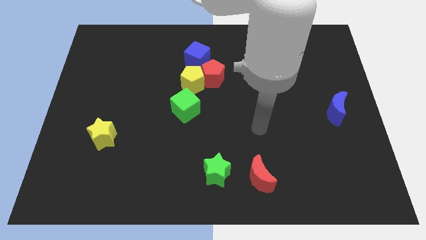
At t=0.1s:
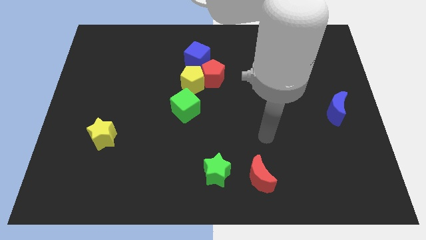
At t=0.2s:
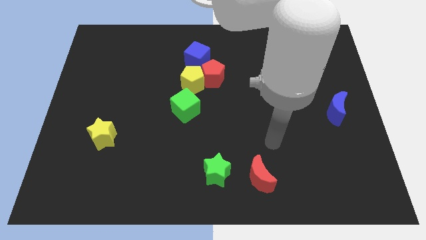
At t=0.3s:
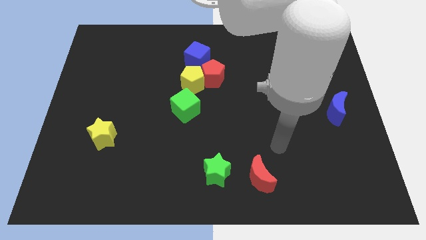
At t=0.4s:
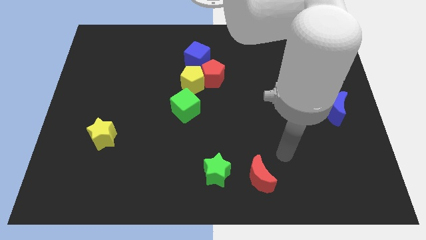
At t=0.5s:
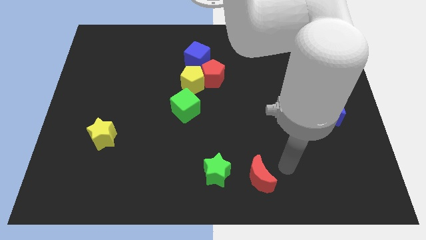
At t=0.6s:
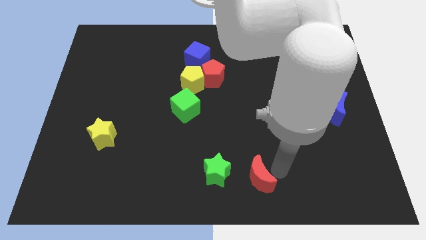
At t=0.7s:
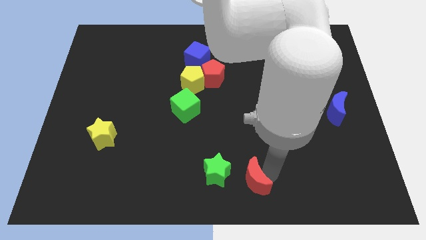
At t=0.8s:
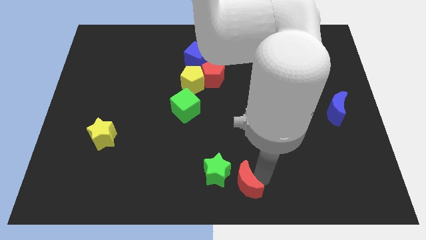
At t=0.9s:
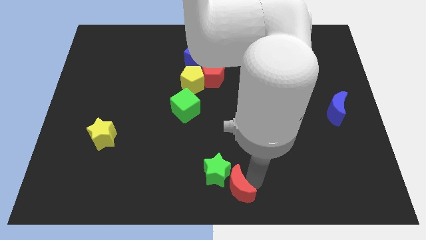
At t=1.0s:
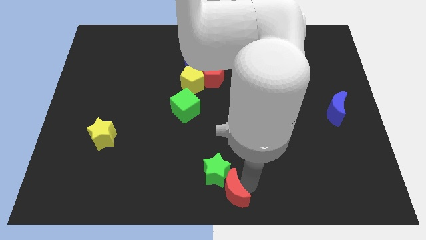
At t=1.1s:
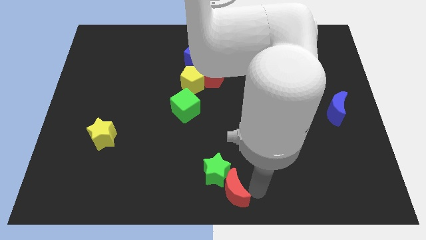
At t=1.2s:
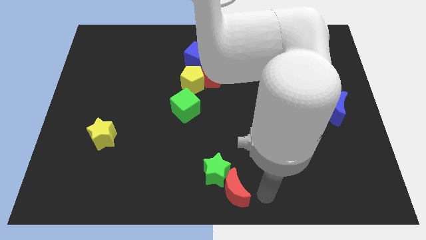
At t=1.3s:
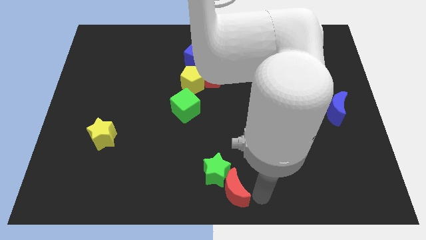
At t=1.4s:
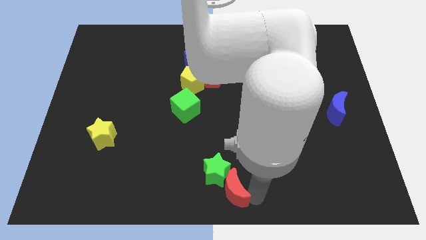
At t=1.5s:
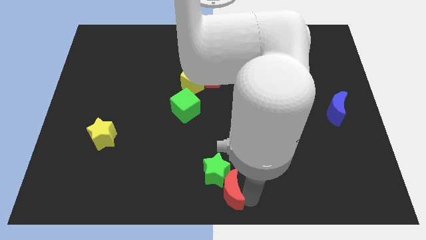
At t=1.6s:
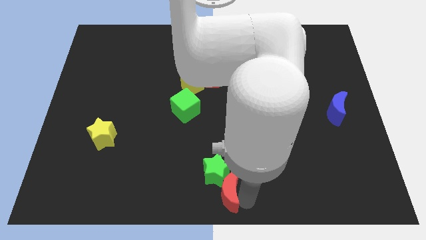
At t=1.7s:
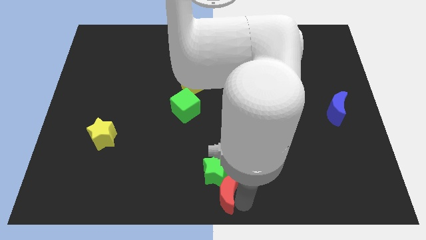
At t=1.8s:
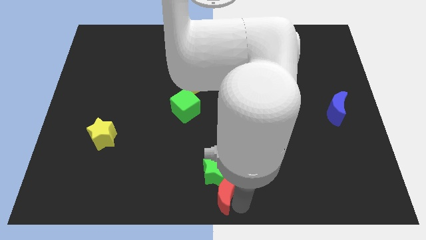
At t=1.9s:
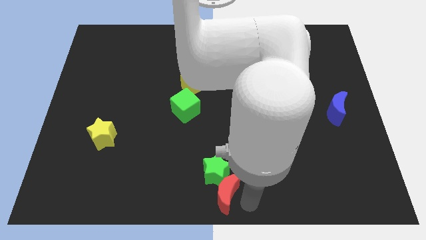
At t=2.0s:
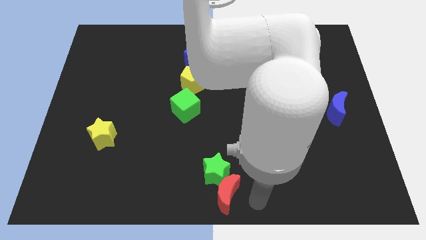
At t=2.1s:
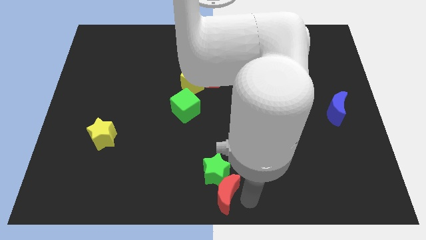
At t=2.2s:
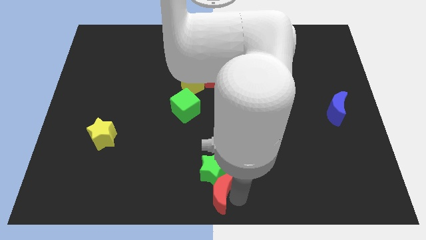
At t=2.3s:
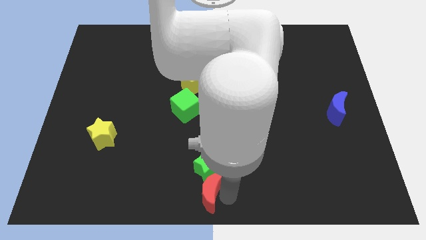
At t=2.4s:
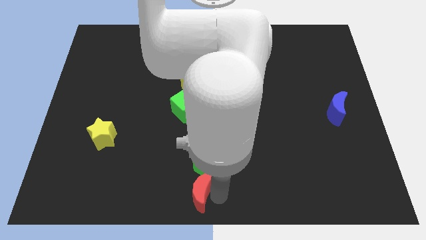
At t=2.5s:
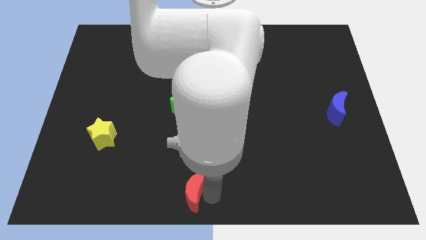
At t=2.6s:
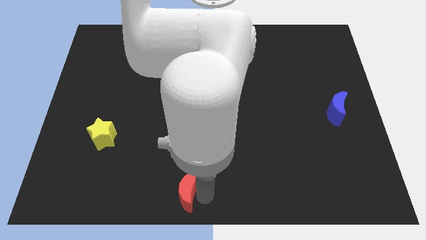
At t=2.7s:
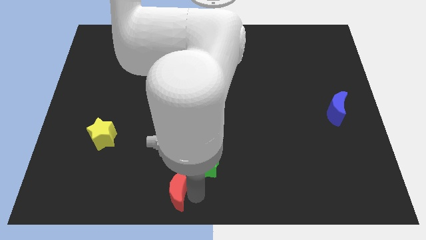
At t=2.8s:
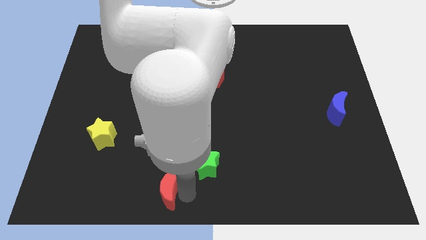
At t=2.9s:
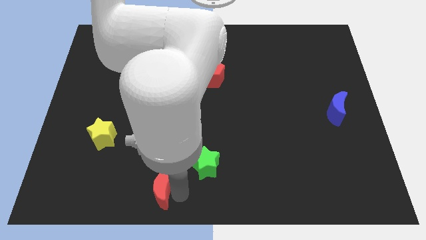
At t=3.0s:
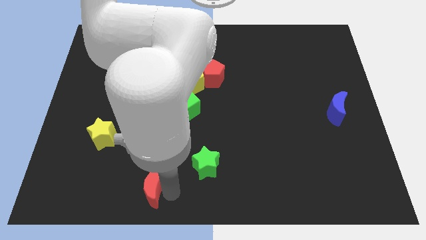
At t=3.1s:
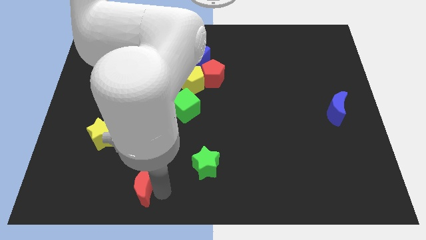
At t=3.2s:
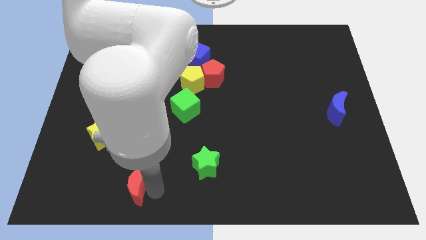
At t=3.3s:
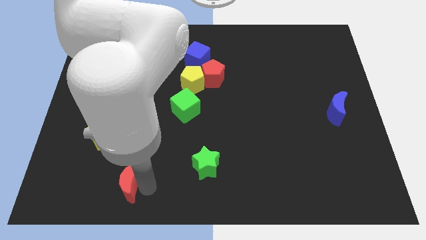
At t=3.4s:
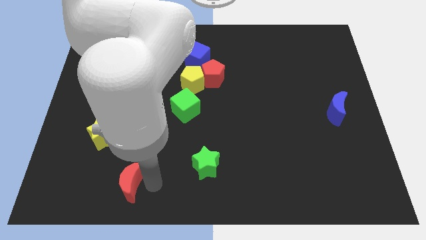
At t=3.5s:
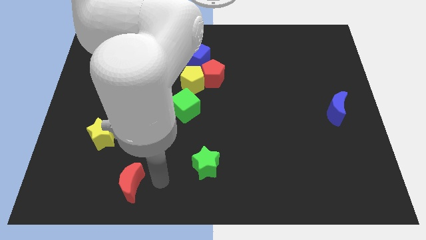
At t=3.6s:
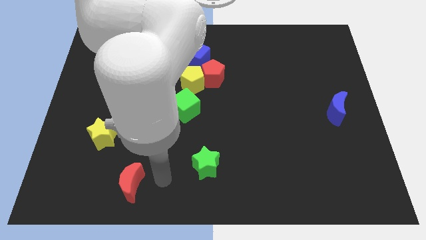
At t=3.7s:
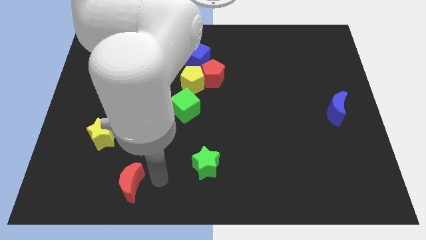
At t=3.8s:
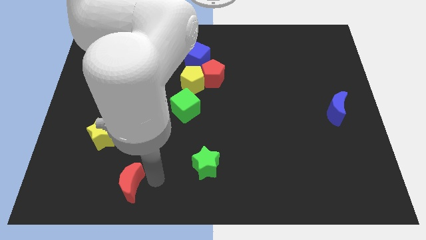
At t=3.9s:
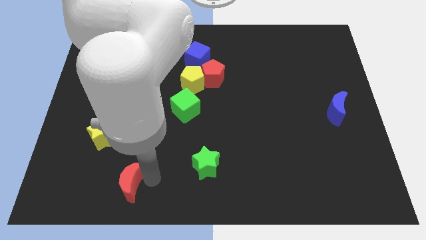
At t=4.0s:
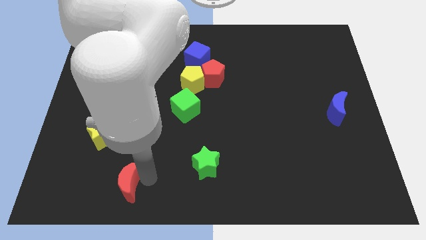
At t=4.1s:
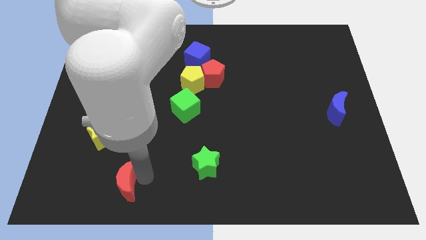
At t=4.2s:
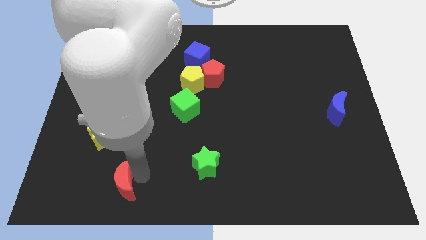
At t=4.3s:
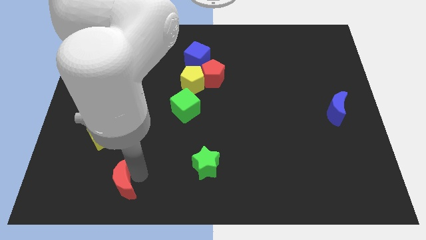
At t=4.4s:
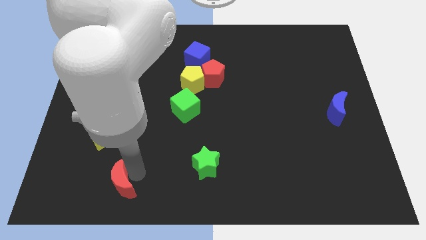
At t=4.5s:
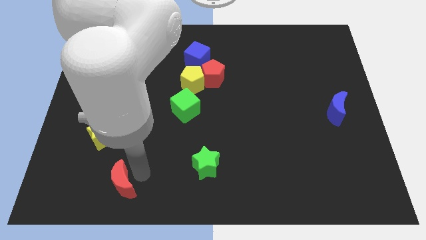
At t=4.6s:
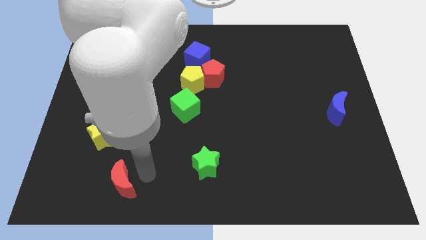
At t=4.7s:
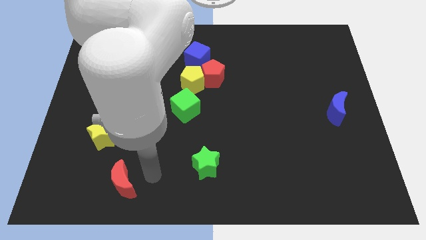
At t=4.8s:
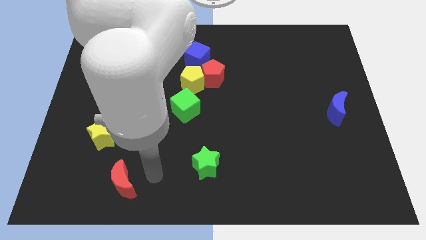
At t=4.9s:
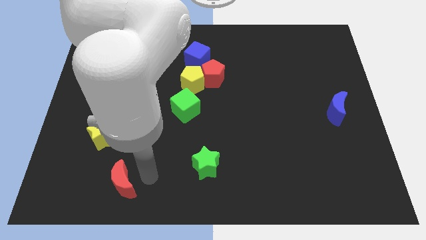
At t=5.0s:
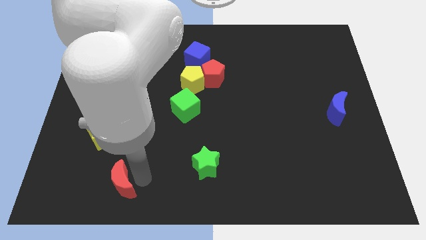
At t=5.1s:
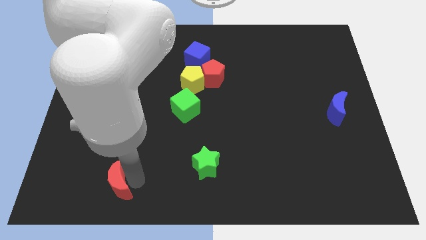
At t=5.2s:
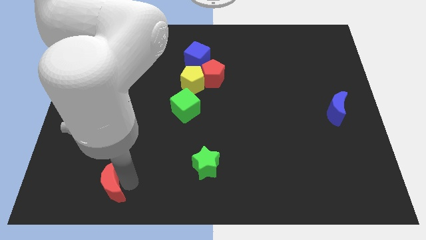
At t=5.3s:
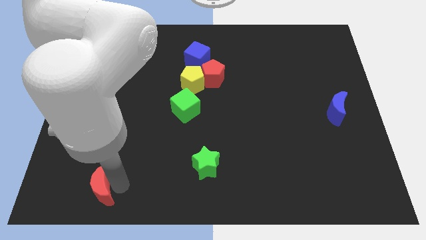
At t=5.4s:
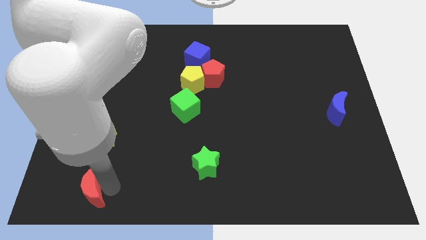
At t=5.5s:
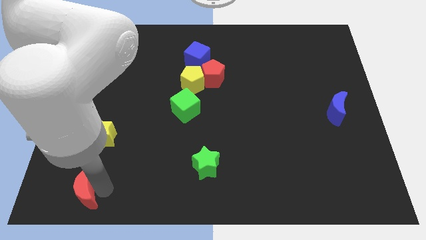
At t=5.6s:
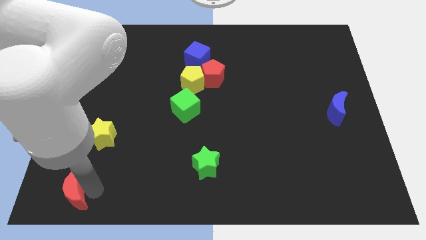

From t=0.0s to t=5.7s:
slide the red moon to the bottom left corner

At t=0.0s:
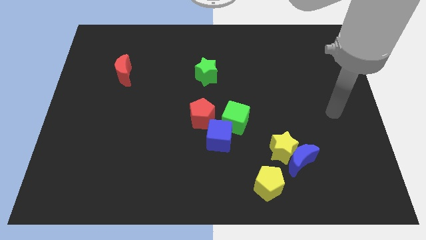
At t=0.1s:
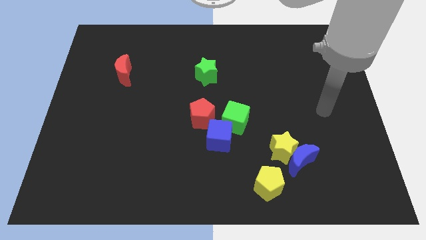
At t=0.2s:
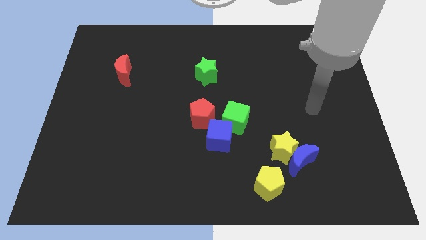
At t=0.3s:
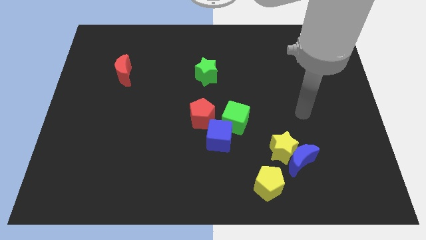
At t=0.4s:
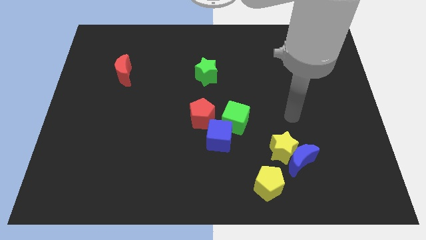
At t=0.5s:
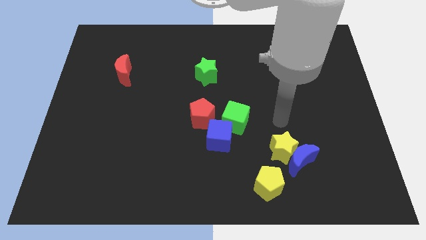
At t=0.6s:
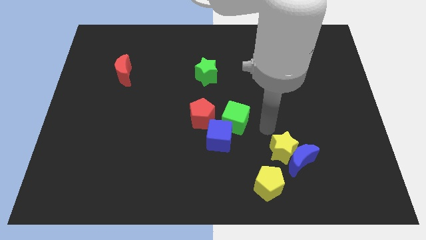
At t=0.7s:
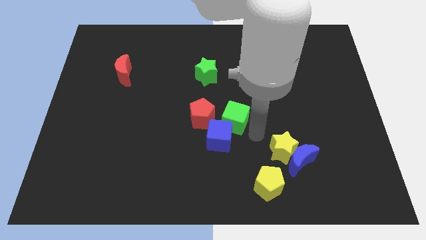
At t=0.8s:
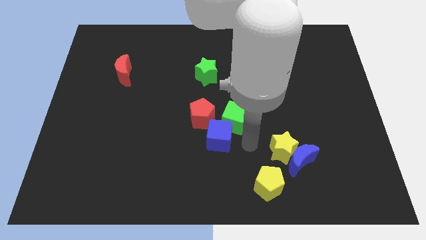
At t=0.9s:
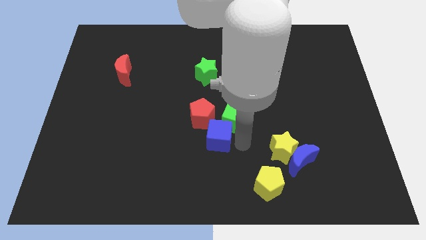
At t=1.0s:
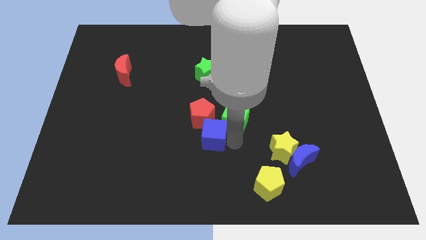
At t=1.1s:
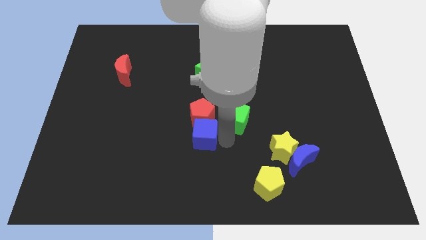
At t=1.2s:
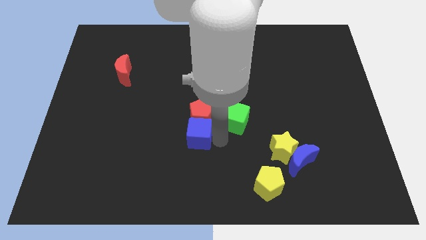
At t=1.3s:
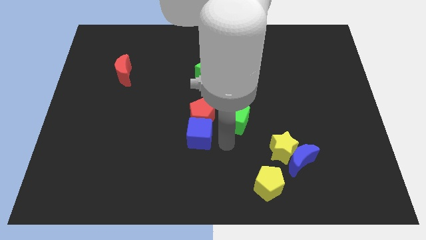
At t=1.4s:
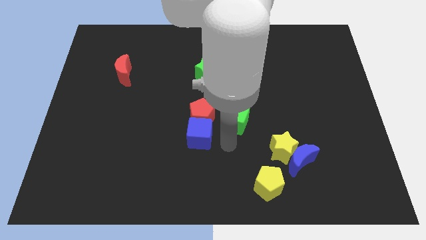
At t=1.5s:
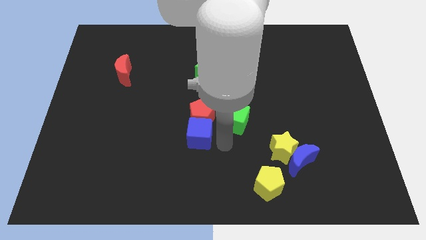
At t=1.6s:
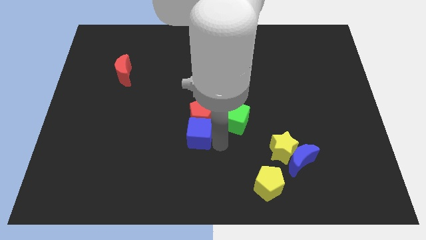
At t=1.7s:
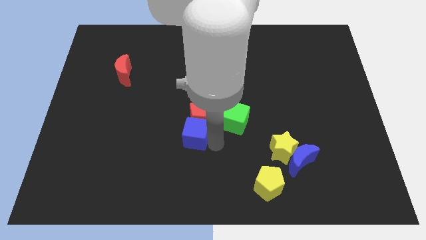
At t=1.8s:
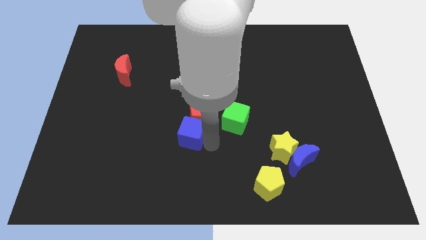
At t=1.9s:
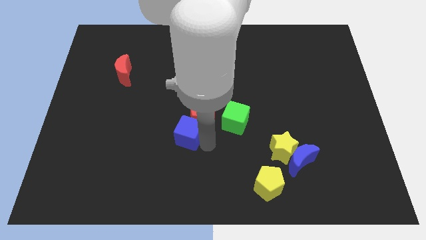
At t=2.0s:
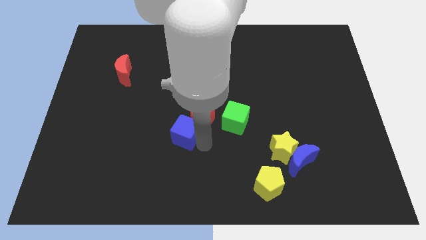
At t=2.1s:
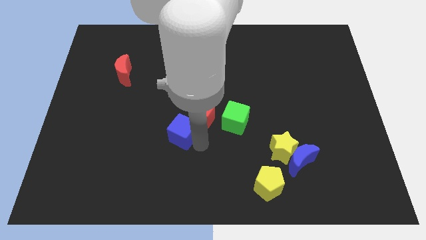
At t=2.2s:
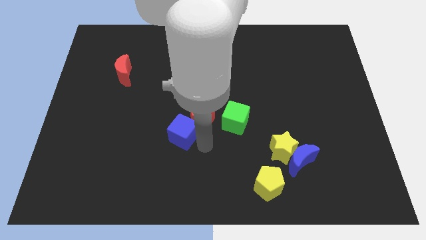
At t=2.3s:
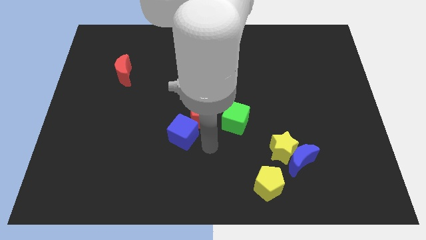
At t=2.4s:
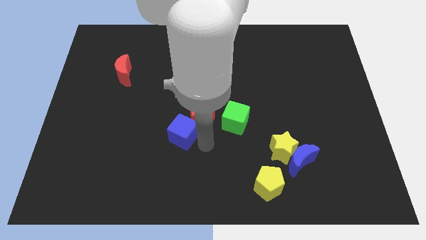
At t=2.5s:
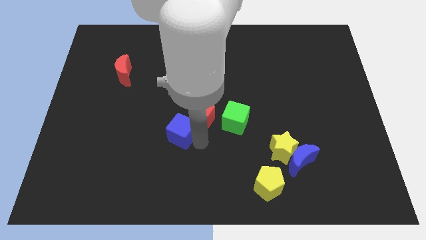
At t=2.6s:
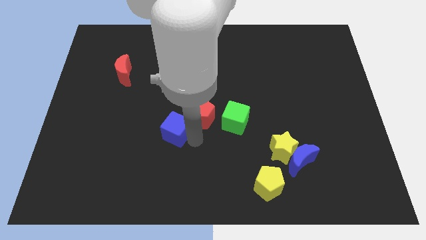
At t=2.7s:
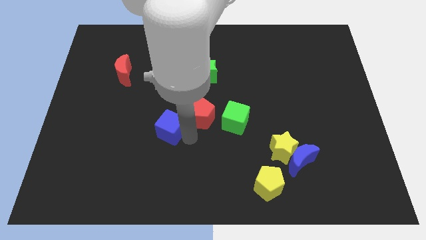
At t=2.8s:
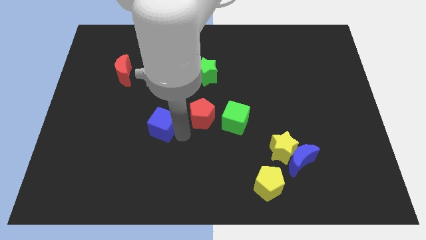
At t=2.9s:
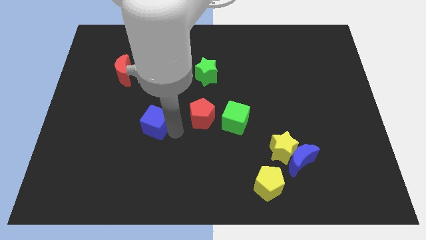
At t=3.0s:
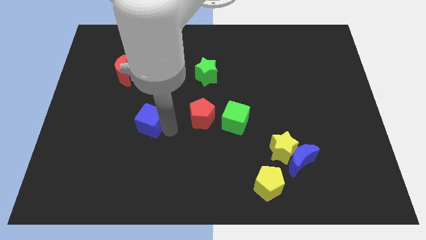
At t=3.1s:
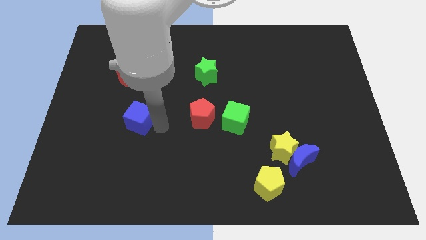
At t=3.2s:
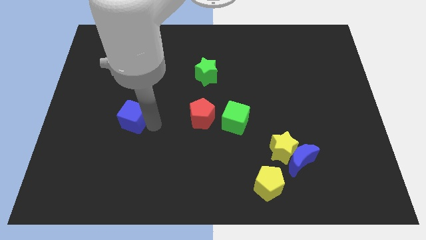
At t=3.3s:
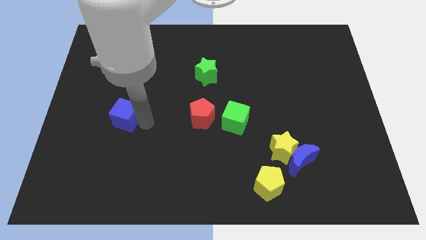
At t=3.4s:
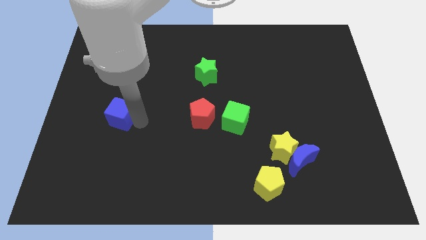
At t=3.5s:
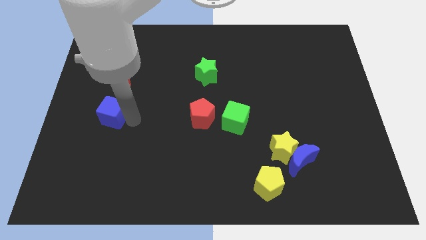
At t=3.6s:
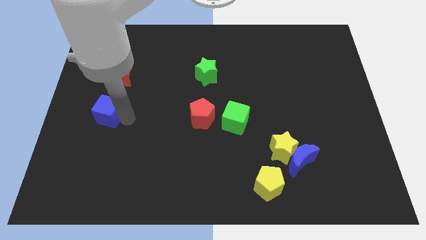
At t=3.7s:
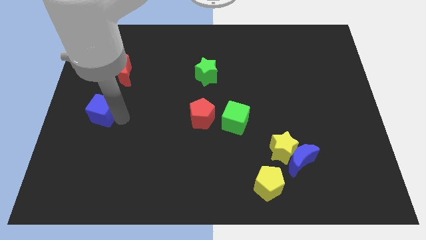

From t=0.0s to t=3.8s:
move the blue cube to the left side
